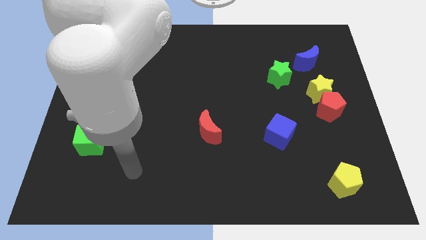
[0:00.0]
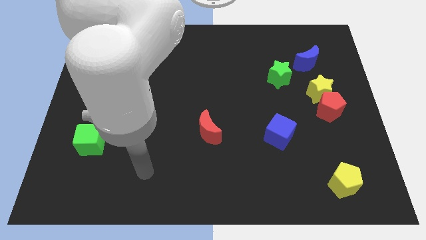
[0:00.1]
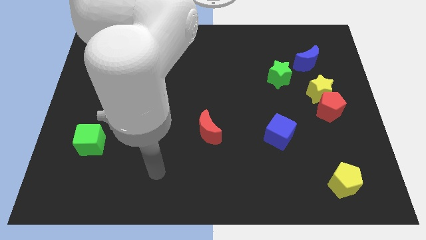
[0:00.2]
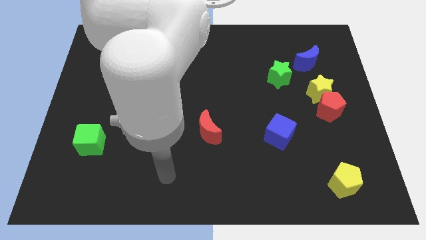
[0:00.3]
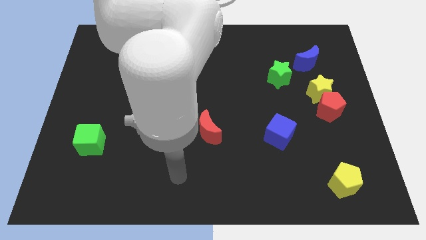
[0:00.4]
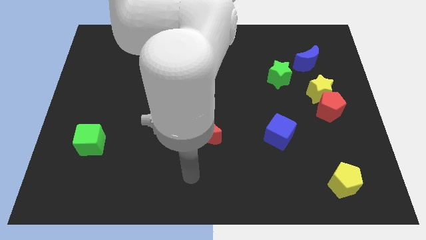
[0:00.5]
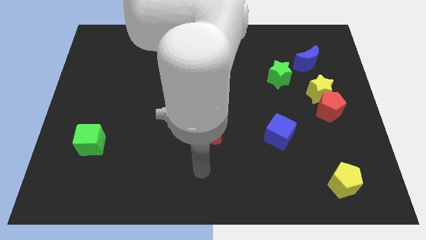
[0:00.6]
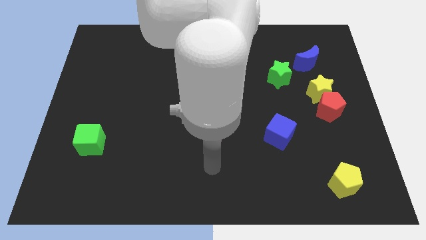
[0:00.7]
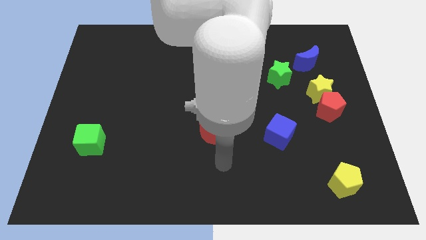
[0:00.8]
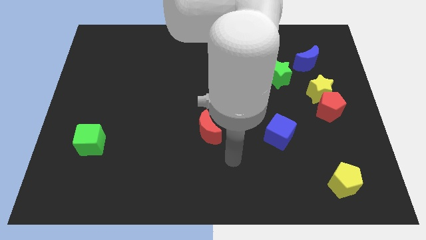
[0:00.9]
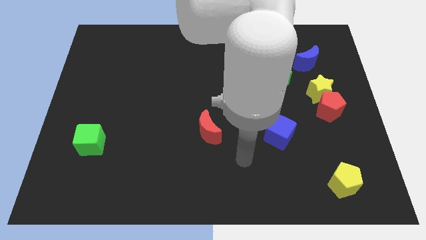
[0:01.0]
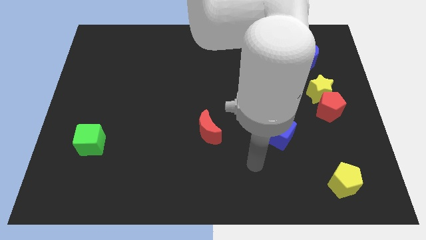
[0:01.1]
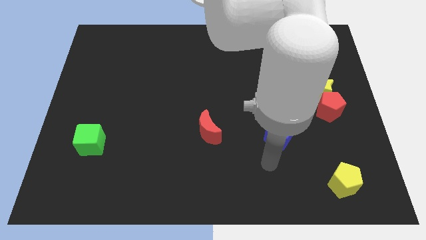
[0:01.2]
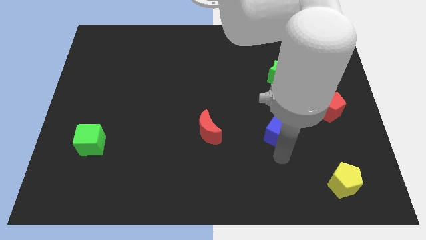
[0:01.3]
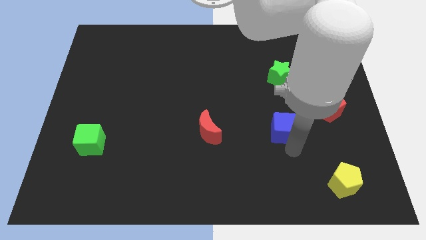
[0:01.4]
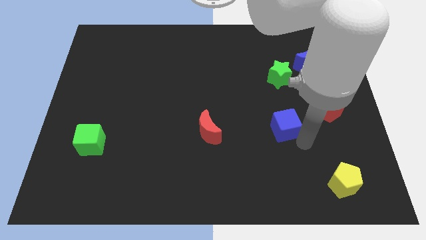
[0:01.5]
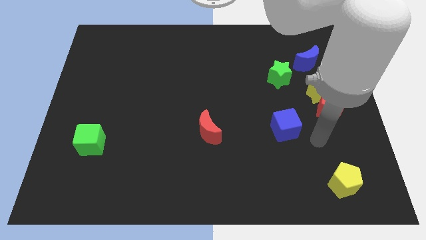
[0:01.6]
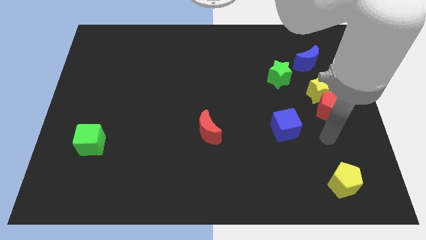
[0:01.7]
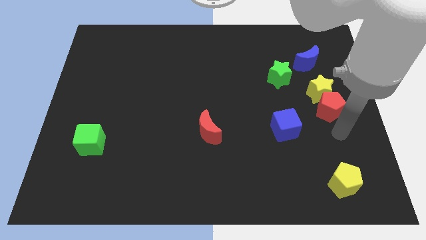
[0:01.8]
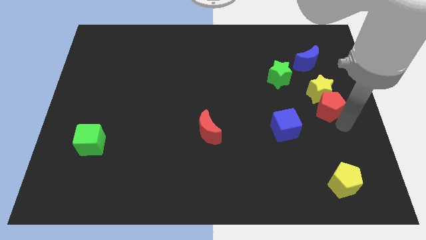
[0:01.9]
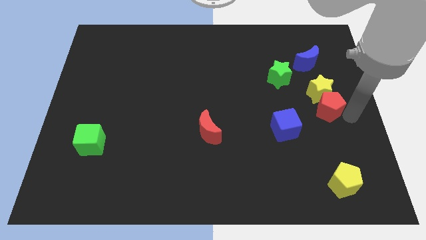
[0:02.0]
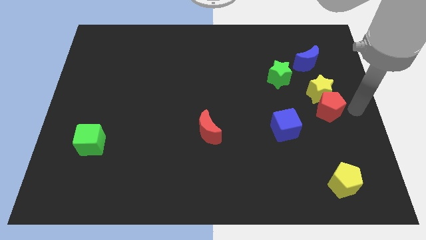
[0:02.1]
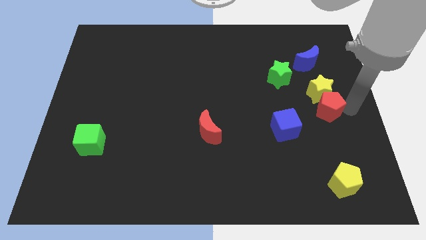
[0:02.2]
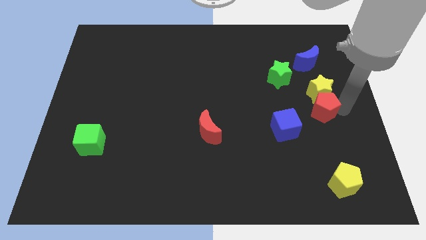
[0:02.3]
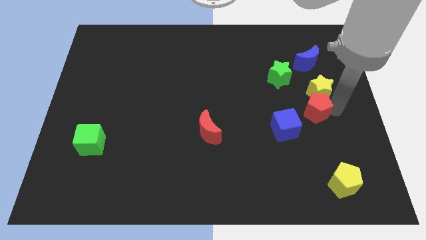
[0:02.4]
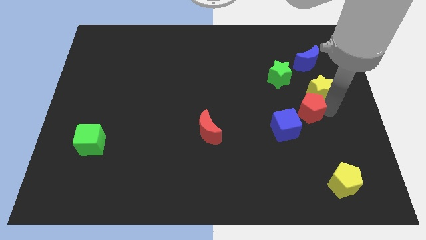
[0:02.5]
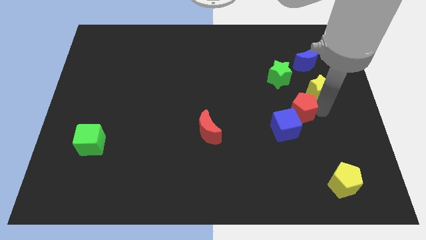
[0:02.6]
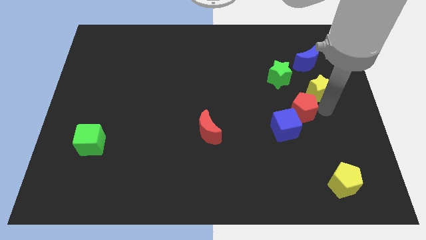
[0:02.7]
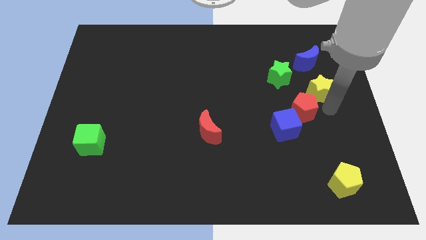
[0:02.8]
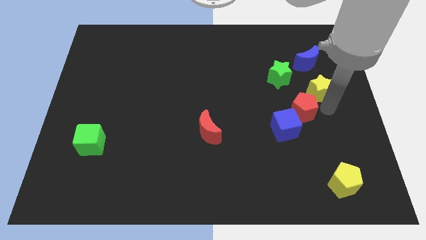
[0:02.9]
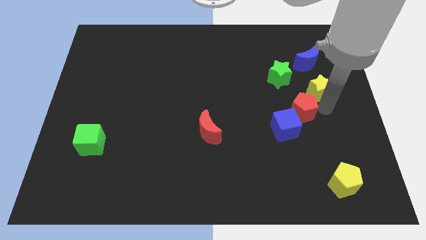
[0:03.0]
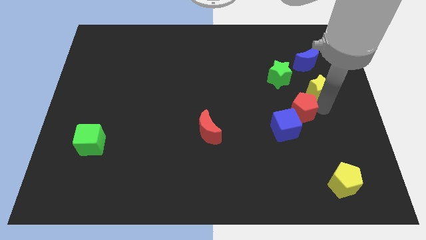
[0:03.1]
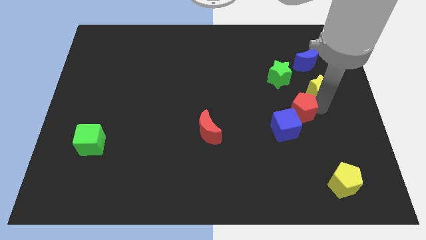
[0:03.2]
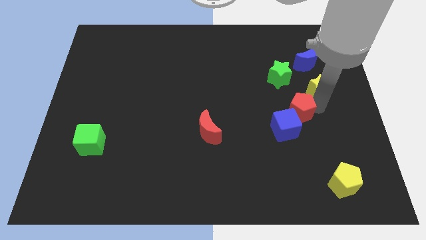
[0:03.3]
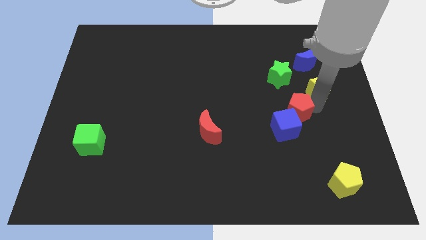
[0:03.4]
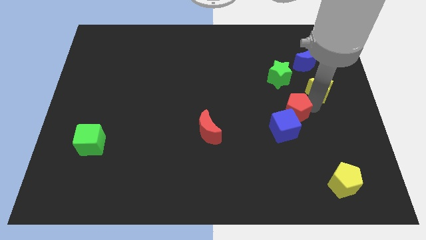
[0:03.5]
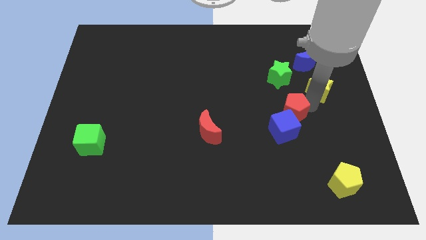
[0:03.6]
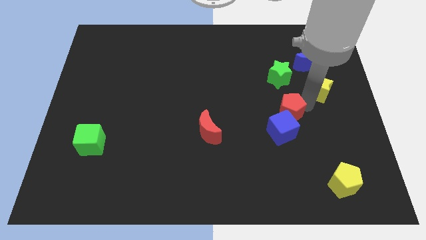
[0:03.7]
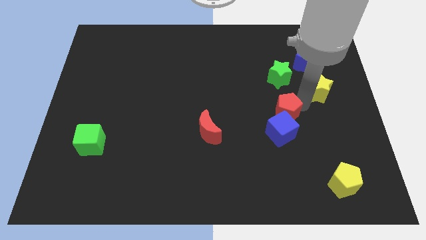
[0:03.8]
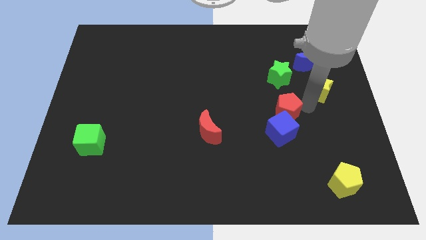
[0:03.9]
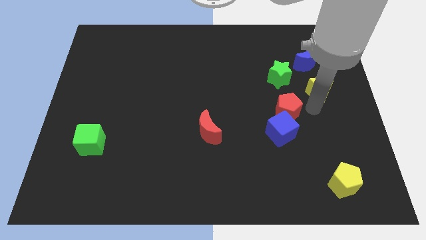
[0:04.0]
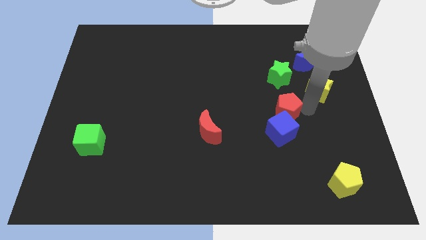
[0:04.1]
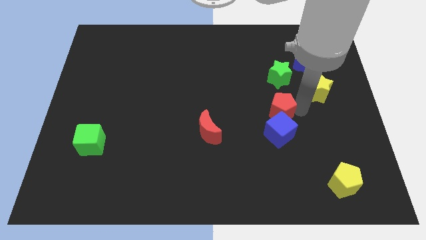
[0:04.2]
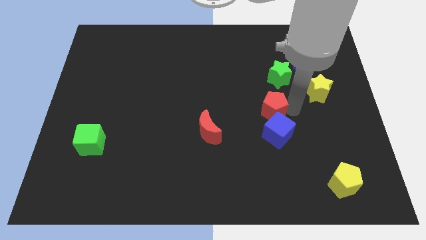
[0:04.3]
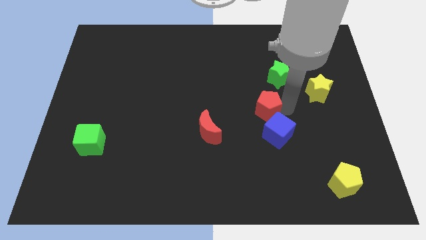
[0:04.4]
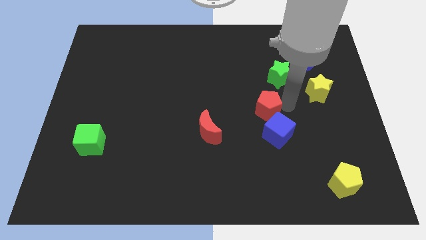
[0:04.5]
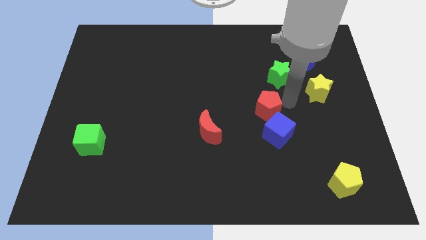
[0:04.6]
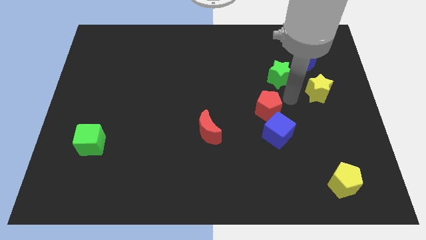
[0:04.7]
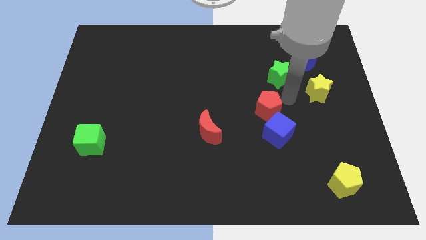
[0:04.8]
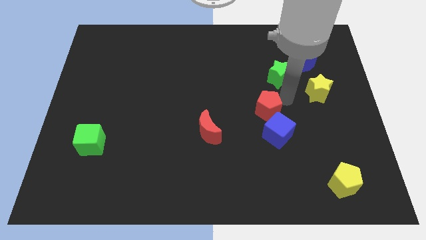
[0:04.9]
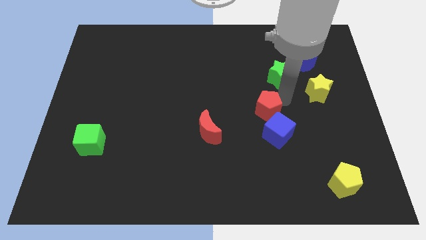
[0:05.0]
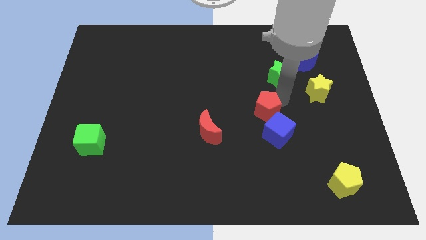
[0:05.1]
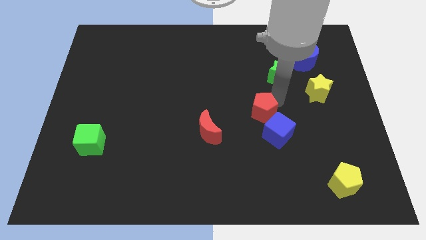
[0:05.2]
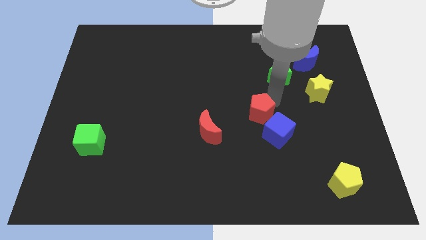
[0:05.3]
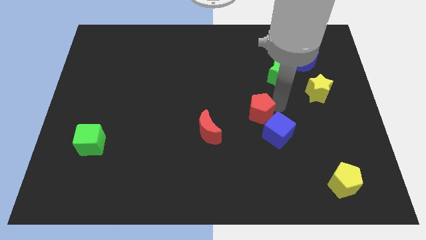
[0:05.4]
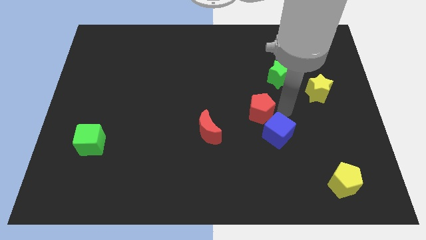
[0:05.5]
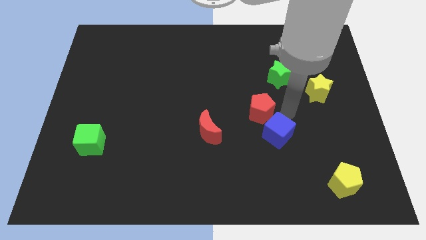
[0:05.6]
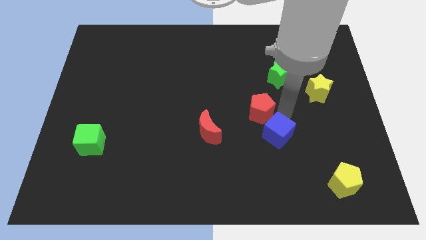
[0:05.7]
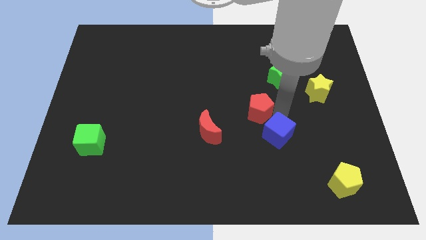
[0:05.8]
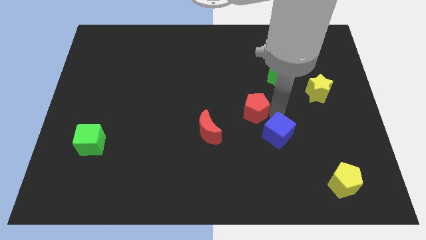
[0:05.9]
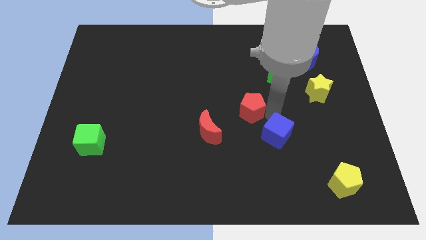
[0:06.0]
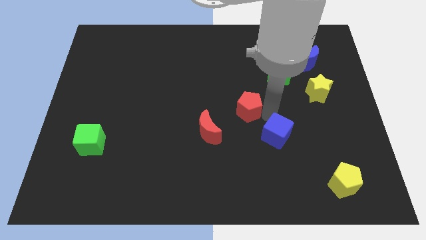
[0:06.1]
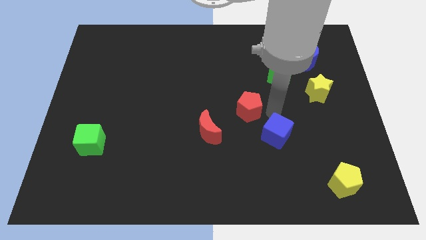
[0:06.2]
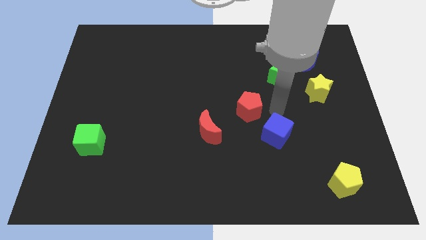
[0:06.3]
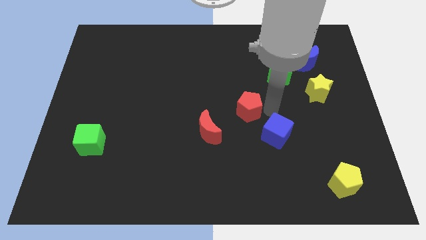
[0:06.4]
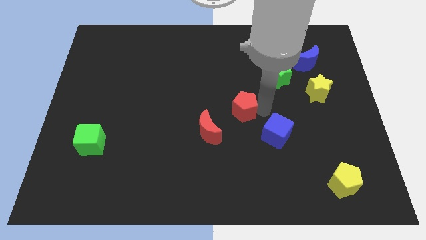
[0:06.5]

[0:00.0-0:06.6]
move the red pentagon to the left

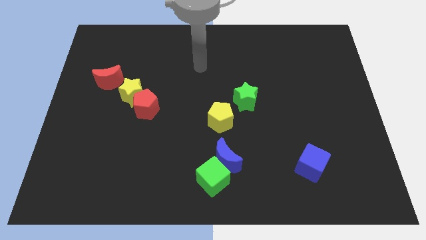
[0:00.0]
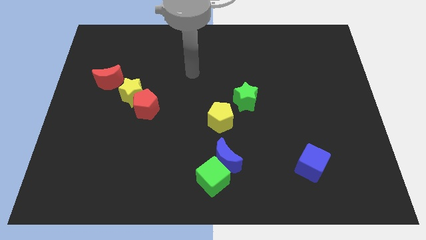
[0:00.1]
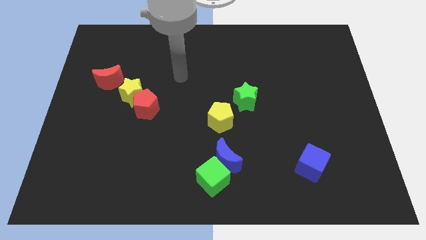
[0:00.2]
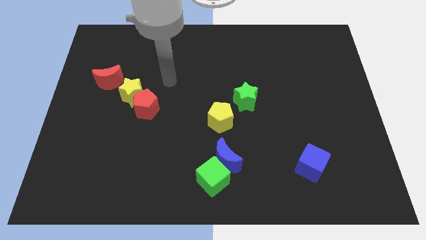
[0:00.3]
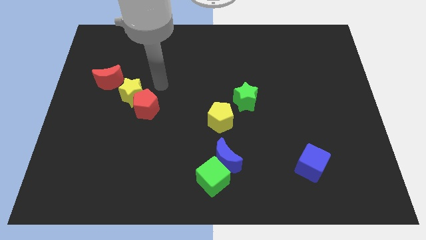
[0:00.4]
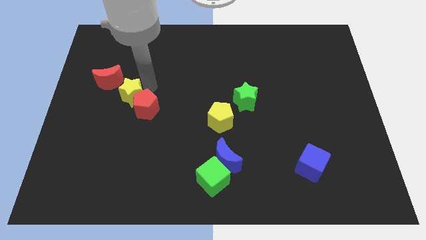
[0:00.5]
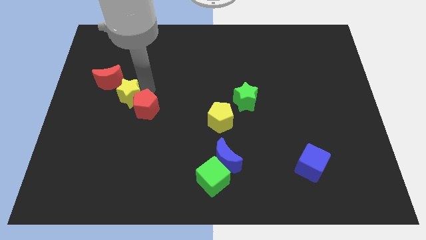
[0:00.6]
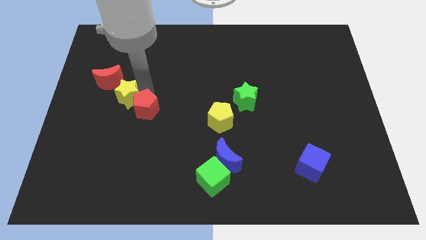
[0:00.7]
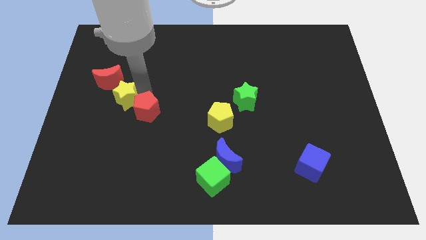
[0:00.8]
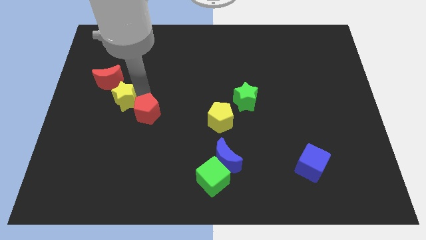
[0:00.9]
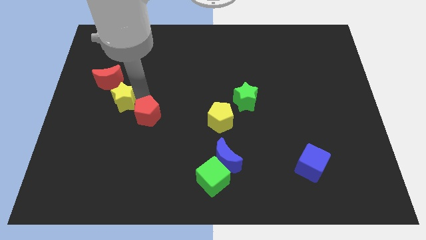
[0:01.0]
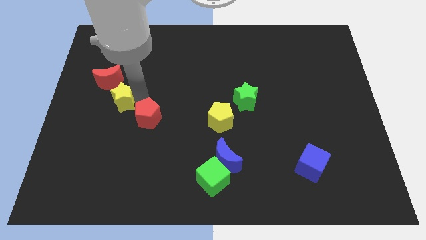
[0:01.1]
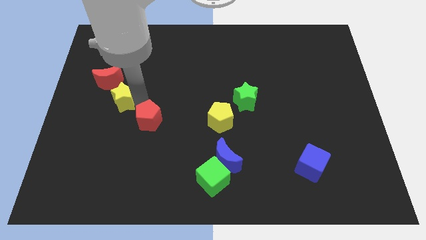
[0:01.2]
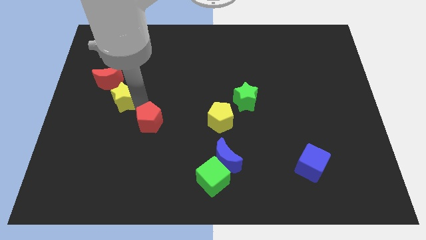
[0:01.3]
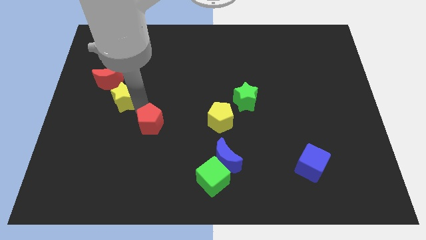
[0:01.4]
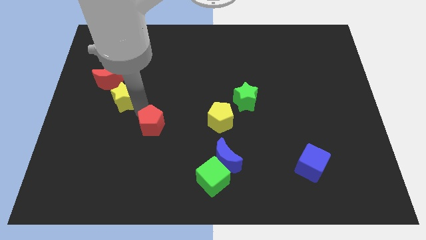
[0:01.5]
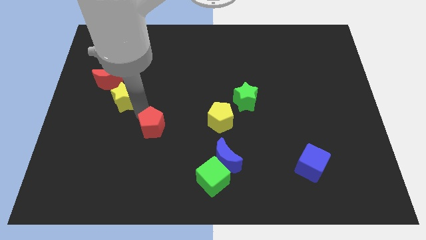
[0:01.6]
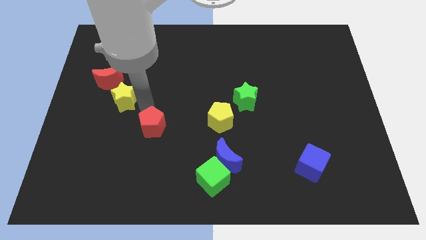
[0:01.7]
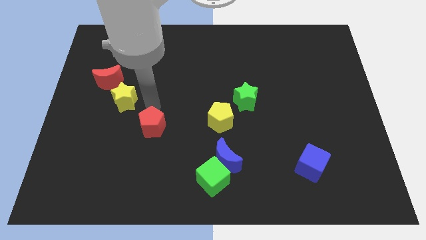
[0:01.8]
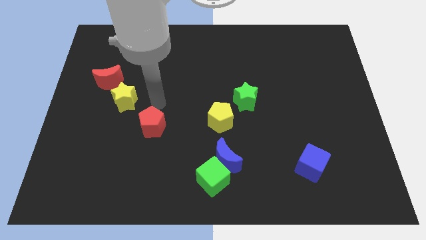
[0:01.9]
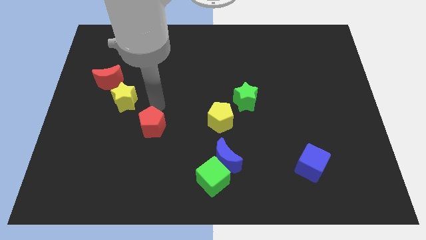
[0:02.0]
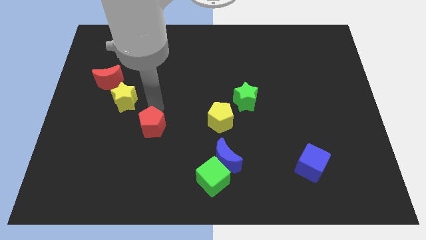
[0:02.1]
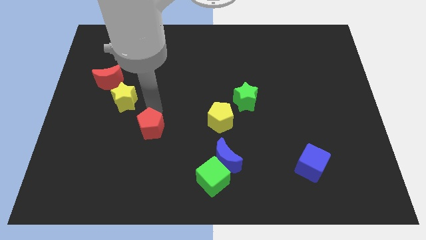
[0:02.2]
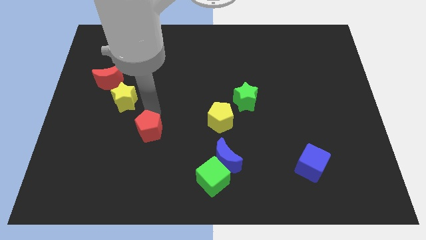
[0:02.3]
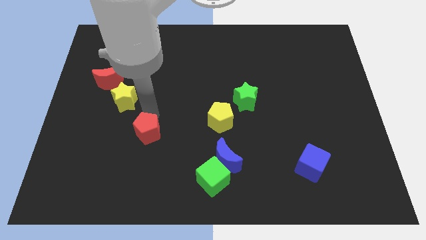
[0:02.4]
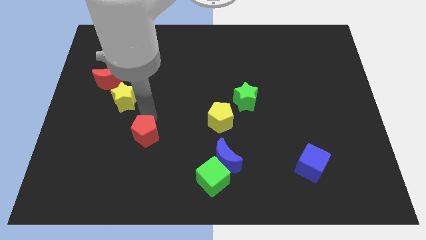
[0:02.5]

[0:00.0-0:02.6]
move the red pentagon a bit downwards
